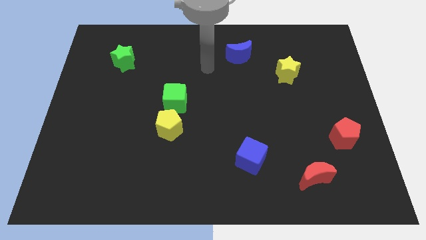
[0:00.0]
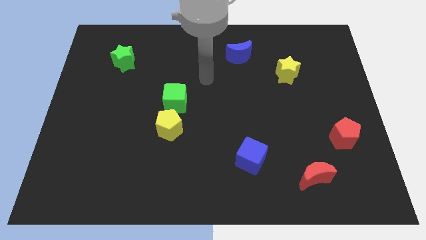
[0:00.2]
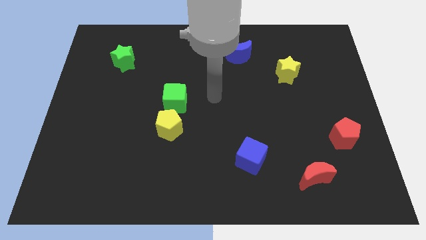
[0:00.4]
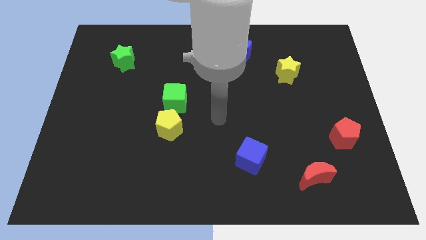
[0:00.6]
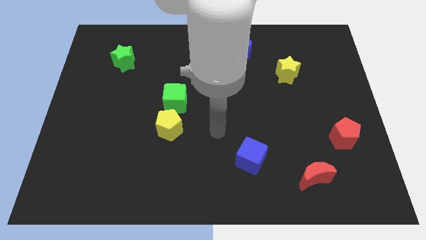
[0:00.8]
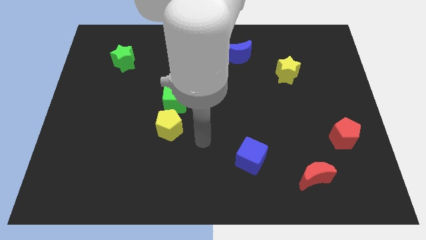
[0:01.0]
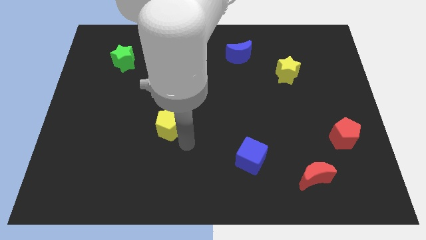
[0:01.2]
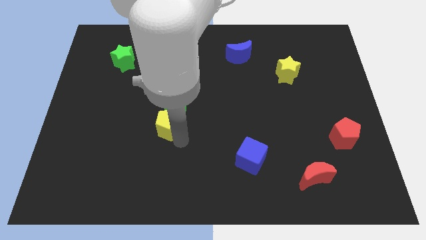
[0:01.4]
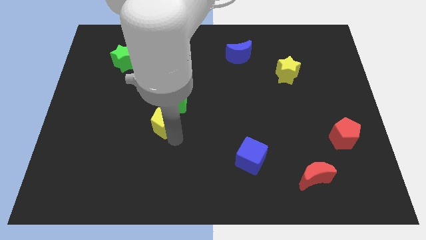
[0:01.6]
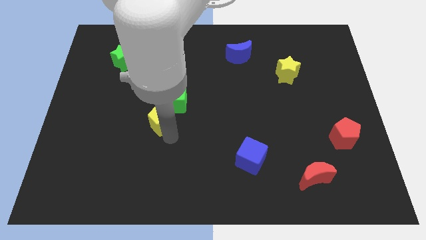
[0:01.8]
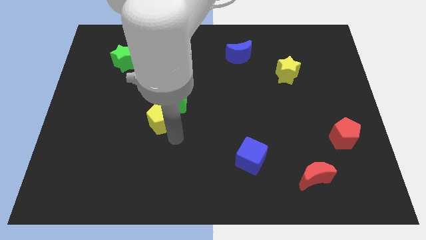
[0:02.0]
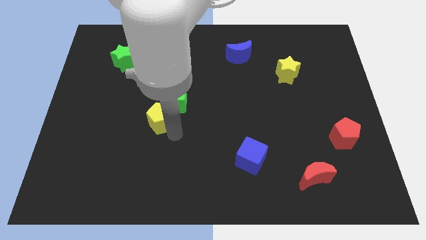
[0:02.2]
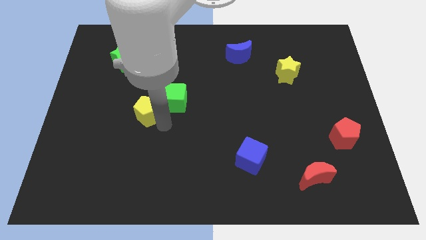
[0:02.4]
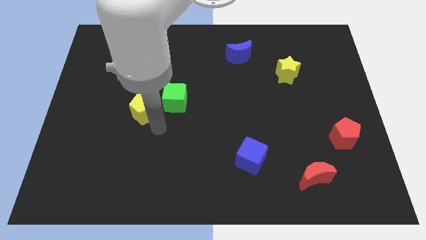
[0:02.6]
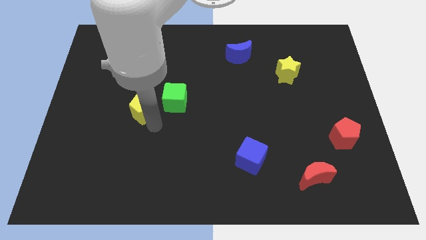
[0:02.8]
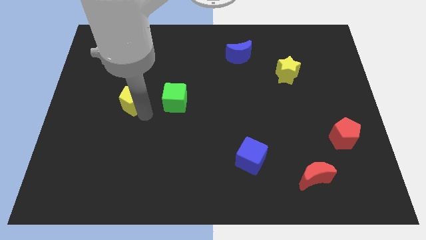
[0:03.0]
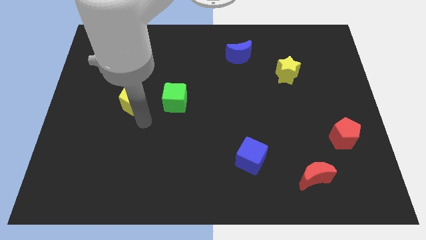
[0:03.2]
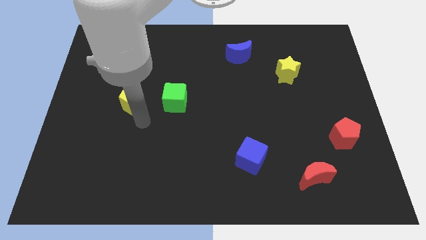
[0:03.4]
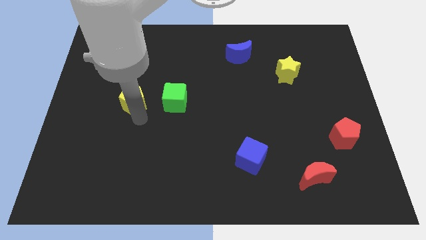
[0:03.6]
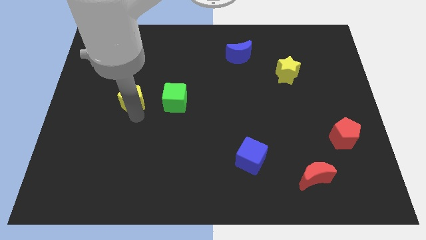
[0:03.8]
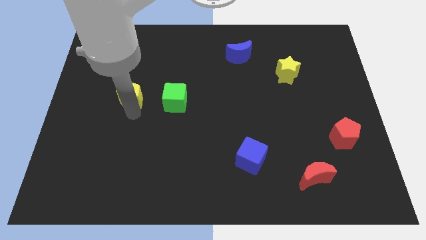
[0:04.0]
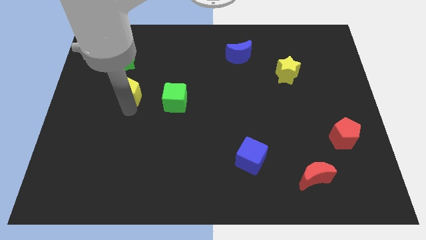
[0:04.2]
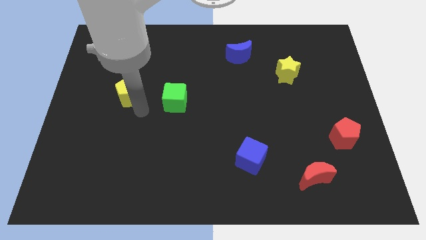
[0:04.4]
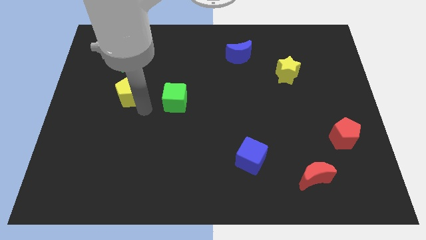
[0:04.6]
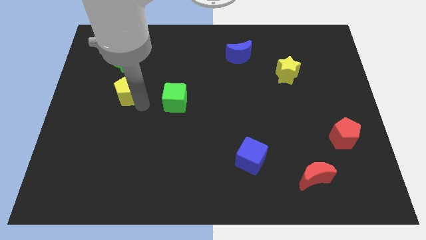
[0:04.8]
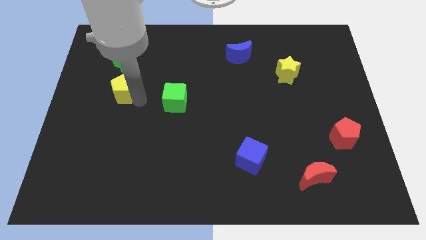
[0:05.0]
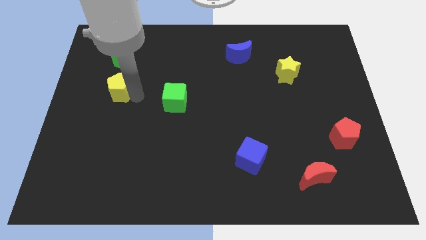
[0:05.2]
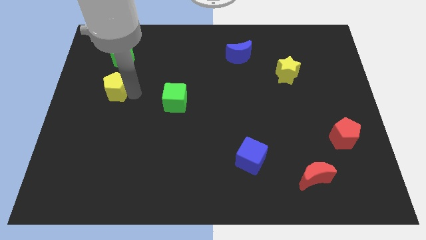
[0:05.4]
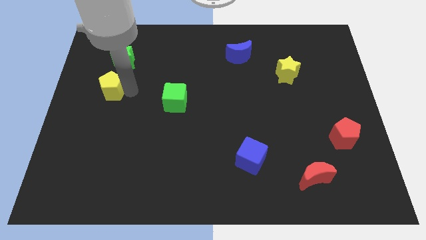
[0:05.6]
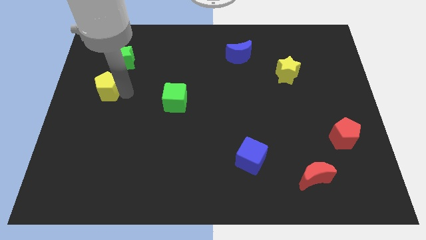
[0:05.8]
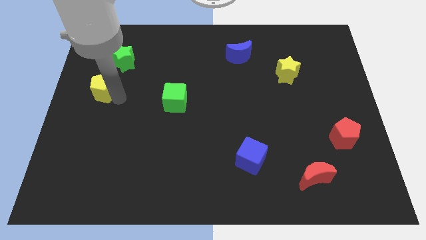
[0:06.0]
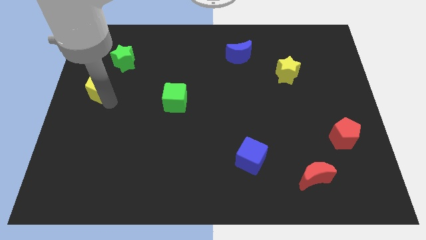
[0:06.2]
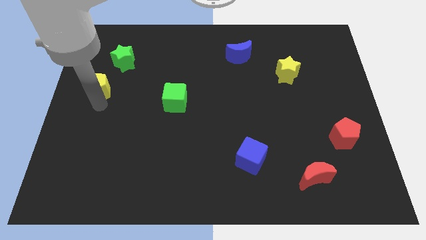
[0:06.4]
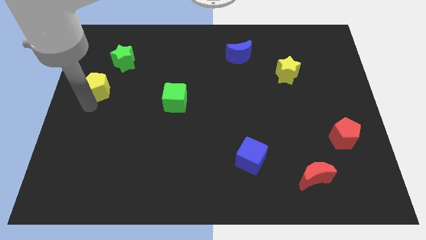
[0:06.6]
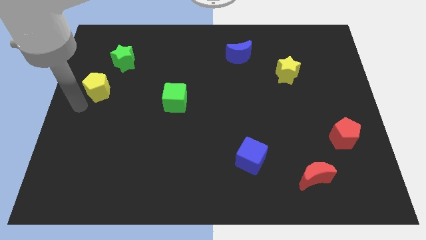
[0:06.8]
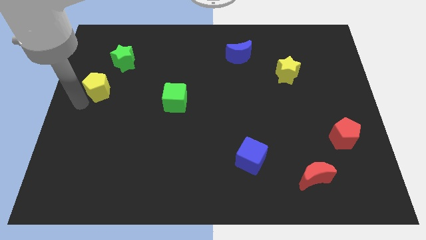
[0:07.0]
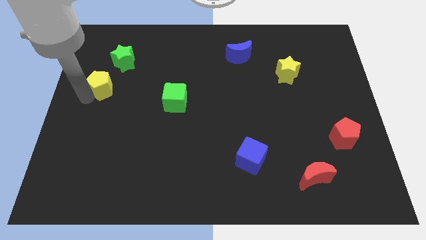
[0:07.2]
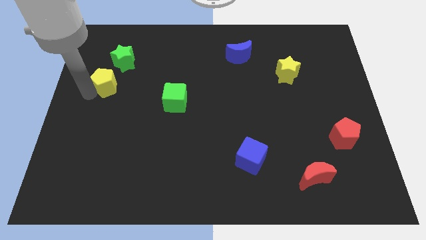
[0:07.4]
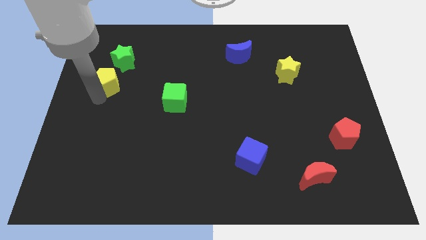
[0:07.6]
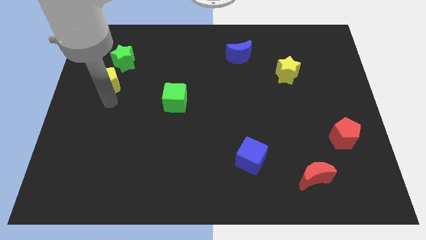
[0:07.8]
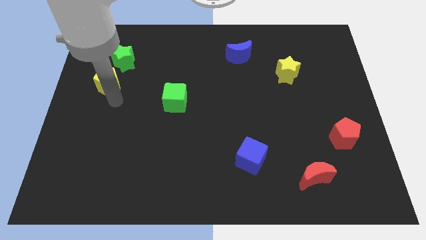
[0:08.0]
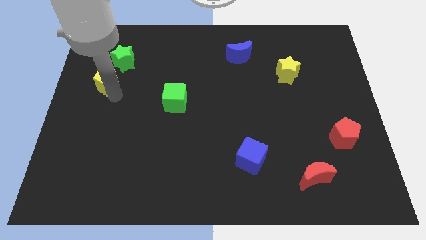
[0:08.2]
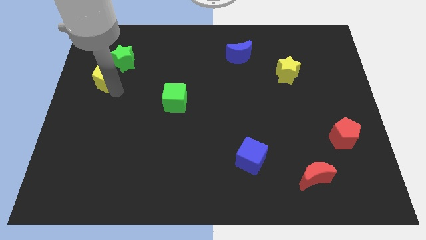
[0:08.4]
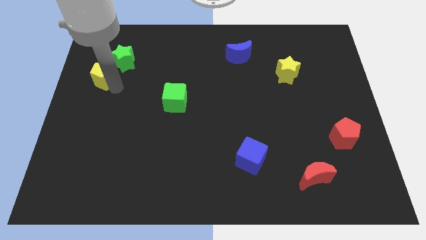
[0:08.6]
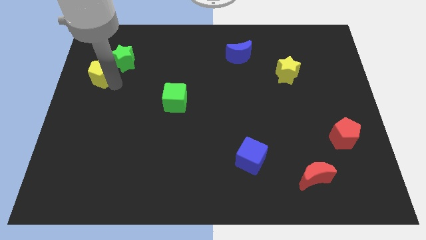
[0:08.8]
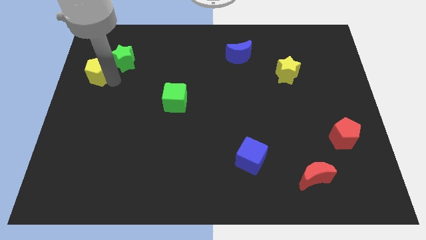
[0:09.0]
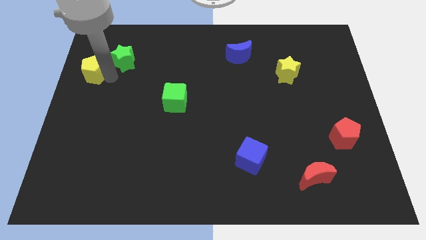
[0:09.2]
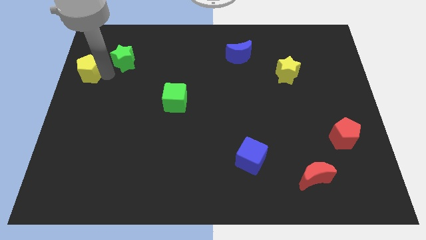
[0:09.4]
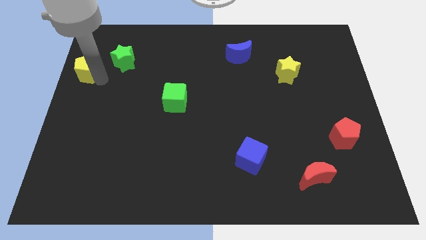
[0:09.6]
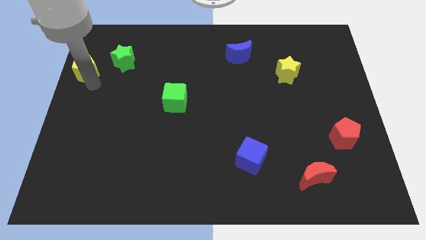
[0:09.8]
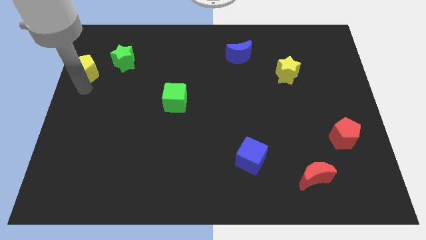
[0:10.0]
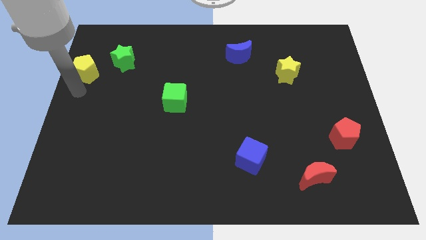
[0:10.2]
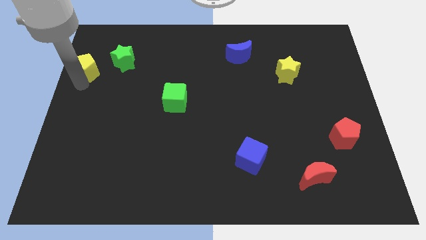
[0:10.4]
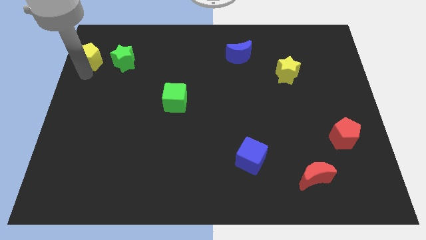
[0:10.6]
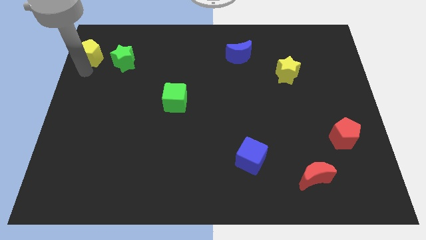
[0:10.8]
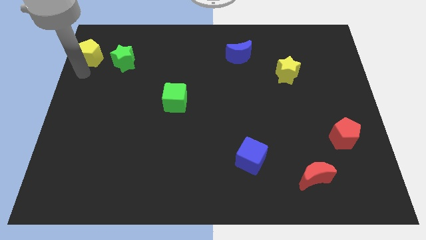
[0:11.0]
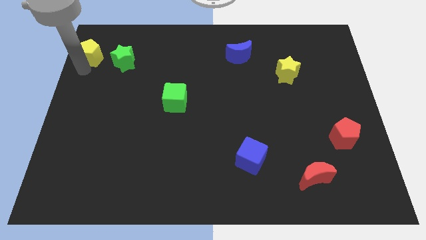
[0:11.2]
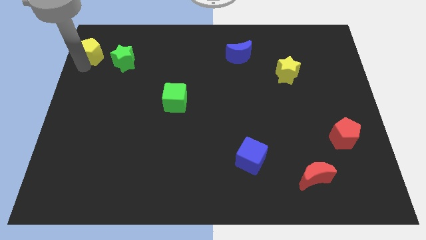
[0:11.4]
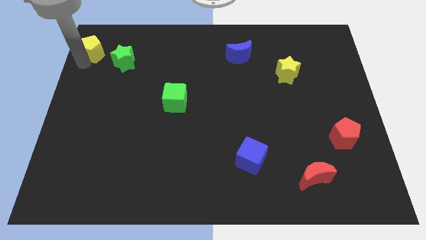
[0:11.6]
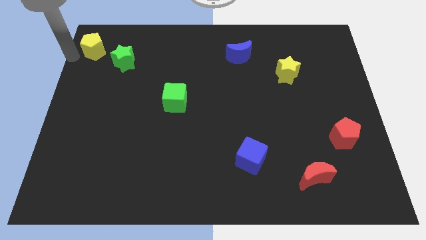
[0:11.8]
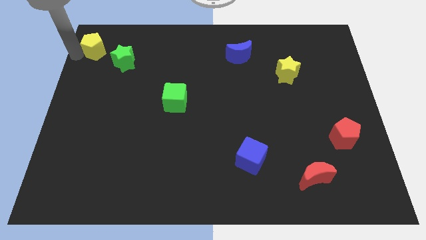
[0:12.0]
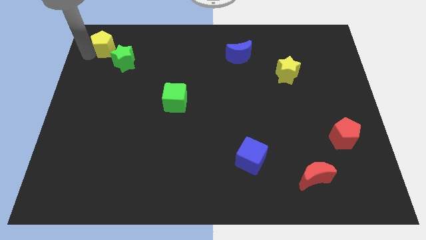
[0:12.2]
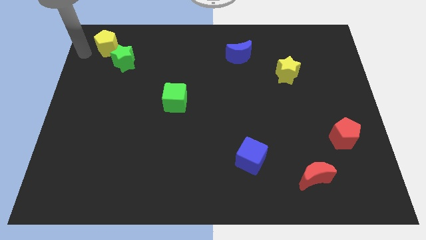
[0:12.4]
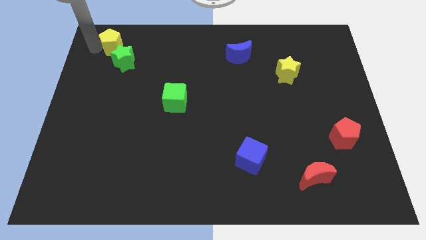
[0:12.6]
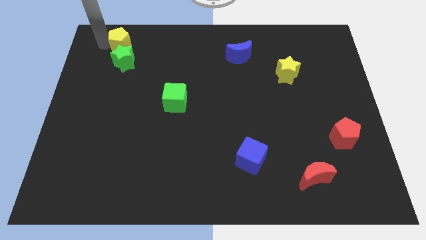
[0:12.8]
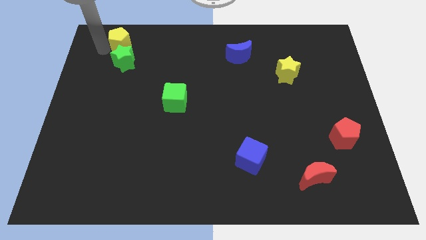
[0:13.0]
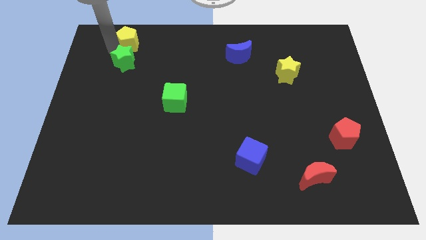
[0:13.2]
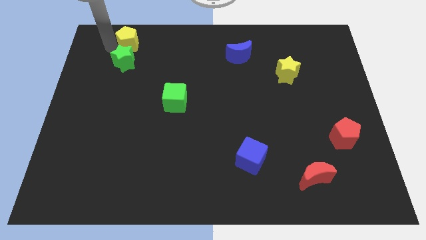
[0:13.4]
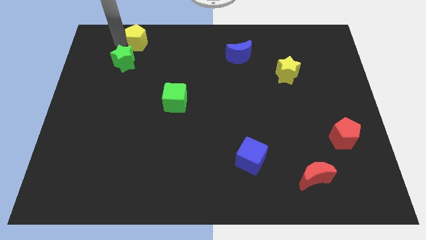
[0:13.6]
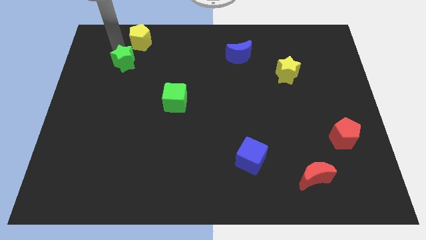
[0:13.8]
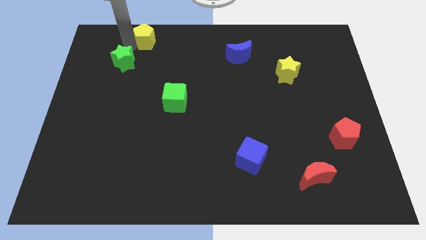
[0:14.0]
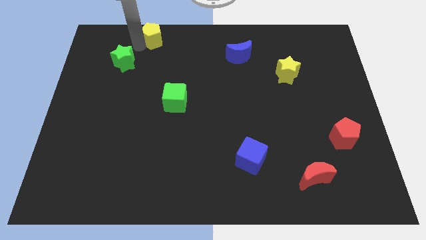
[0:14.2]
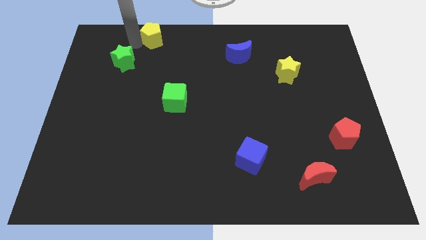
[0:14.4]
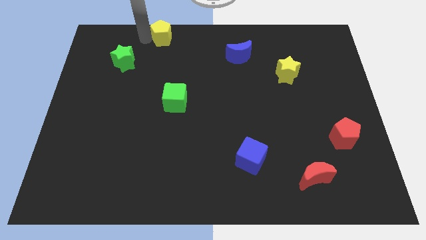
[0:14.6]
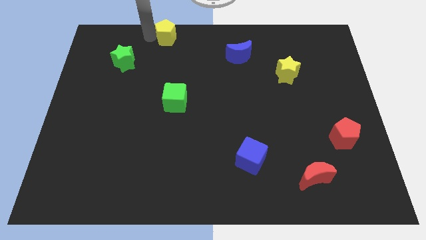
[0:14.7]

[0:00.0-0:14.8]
push the yellow pentagon to the top side
